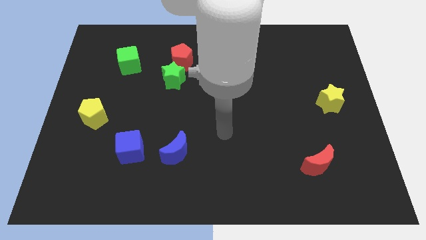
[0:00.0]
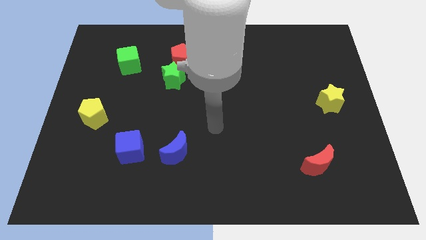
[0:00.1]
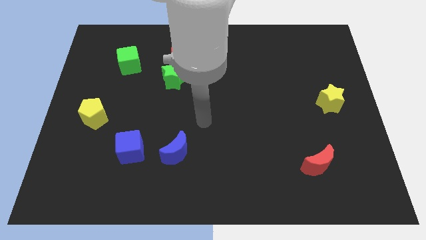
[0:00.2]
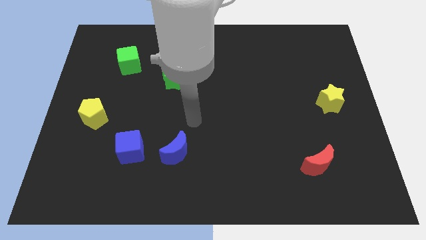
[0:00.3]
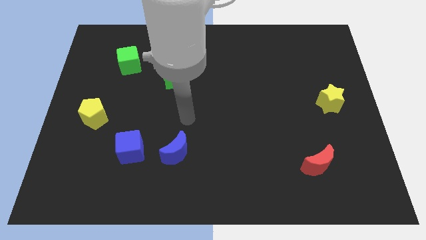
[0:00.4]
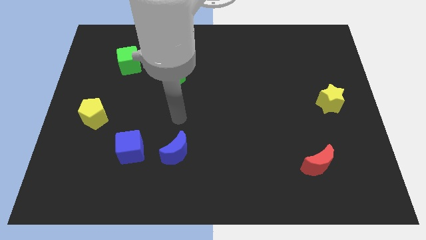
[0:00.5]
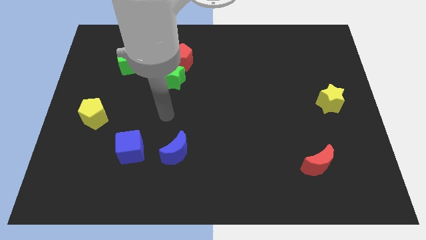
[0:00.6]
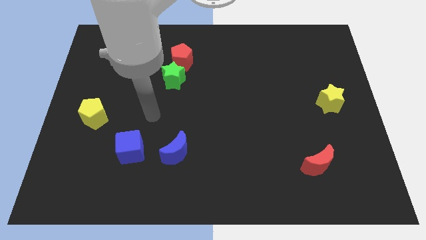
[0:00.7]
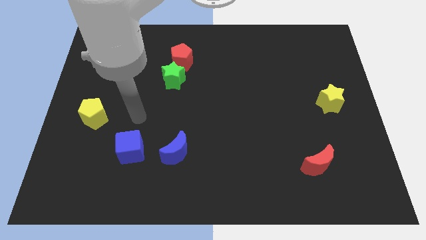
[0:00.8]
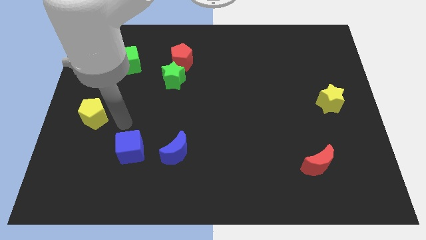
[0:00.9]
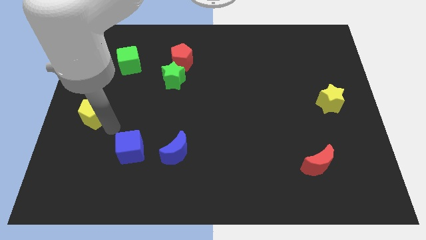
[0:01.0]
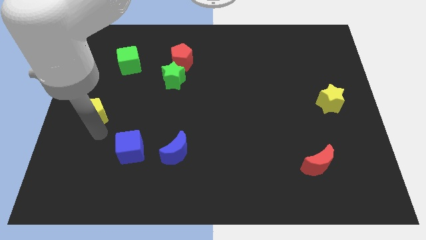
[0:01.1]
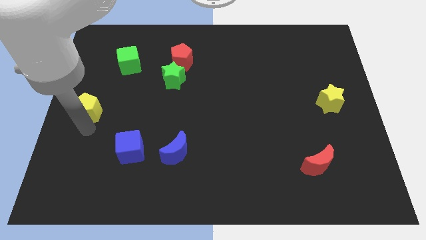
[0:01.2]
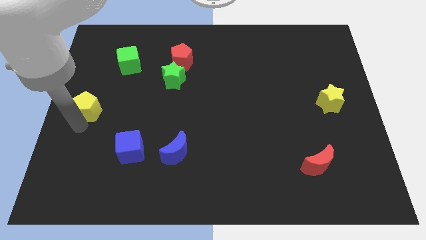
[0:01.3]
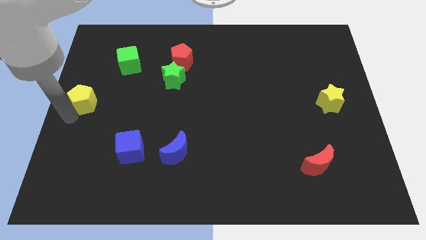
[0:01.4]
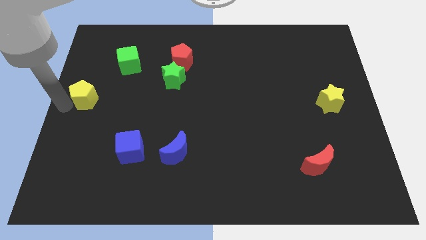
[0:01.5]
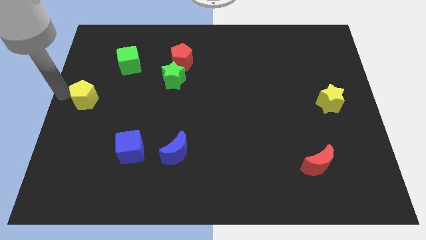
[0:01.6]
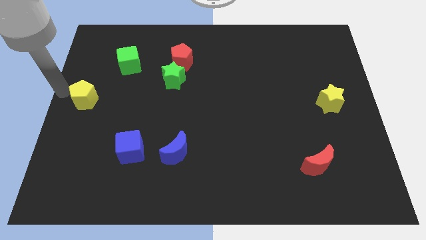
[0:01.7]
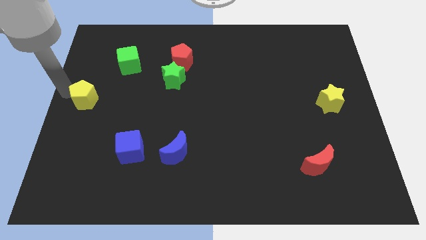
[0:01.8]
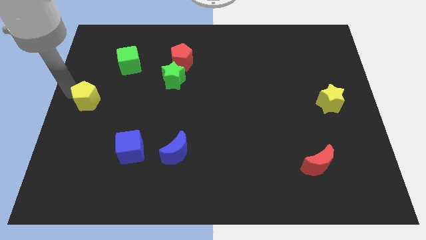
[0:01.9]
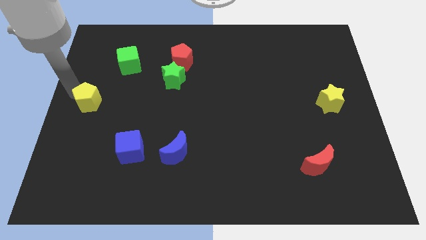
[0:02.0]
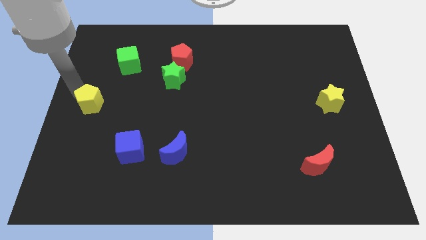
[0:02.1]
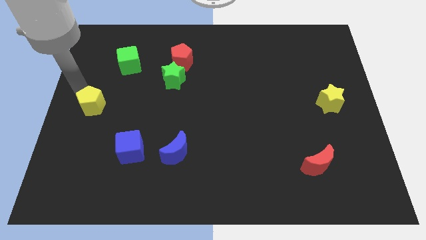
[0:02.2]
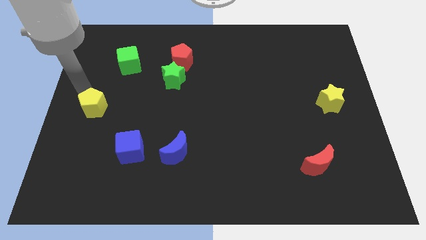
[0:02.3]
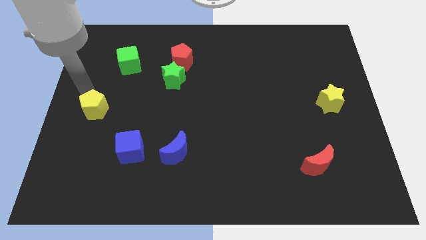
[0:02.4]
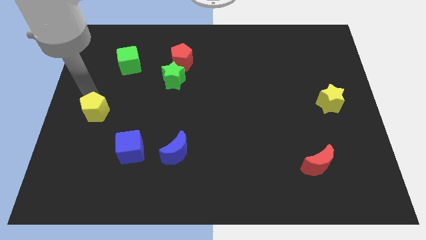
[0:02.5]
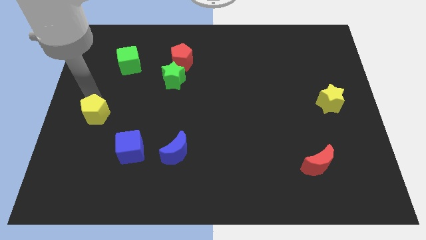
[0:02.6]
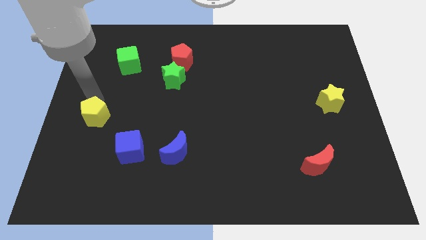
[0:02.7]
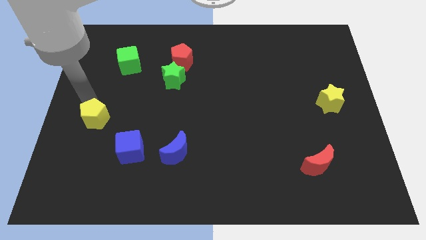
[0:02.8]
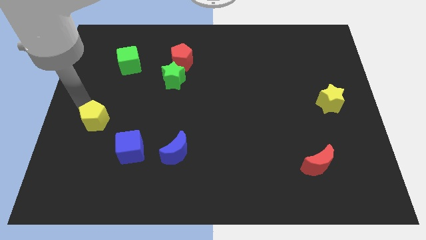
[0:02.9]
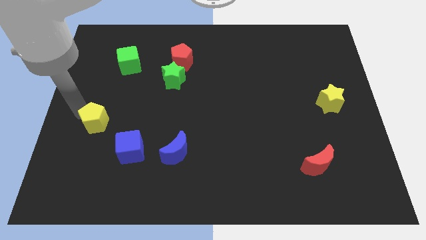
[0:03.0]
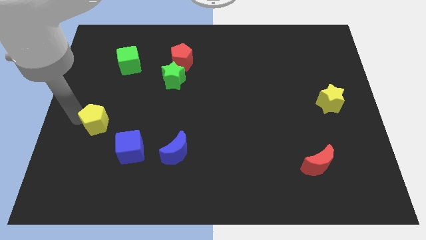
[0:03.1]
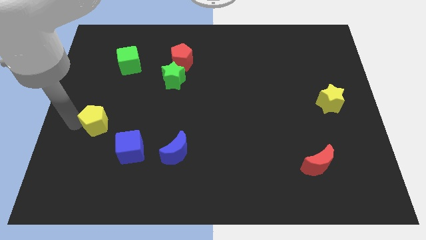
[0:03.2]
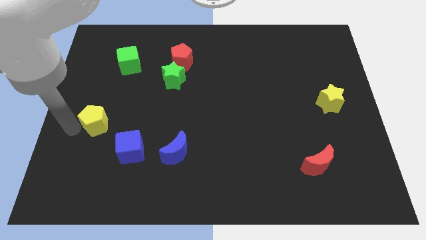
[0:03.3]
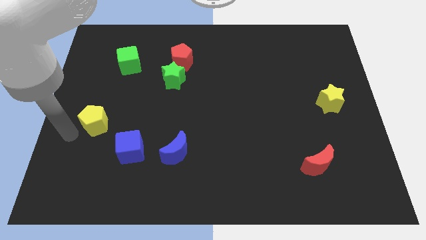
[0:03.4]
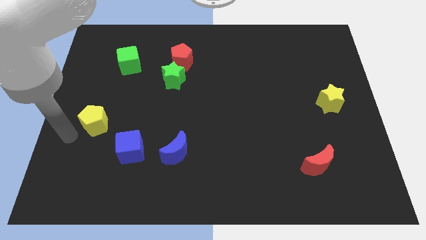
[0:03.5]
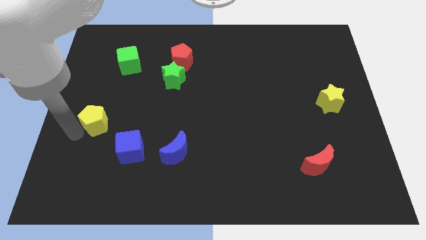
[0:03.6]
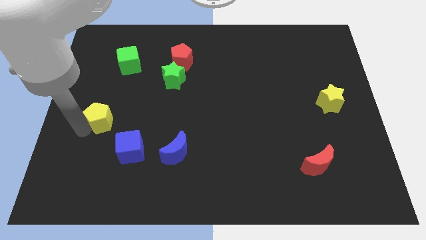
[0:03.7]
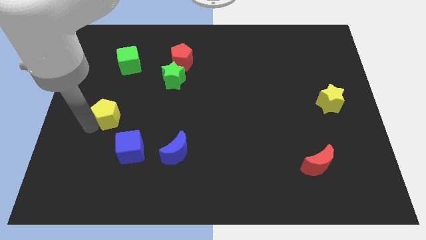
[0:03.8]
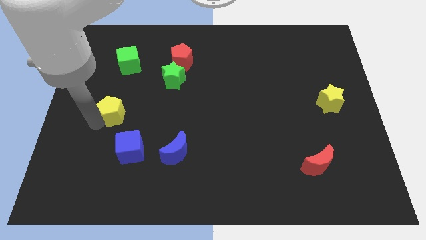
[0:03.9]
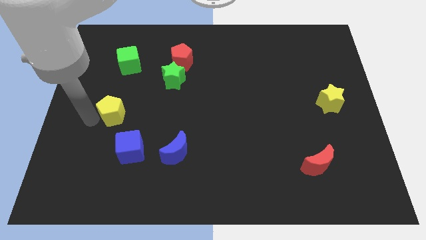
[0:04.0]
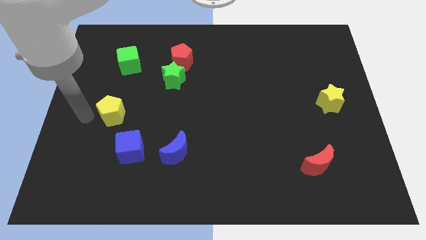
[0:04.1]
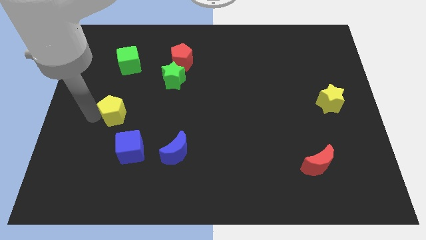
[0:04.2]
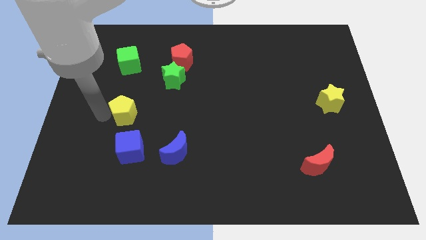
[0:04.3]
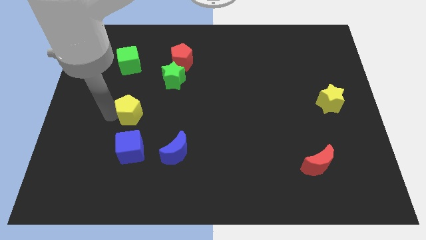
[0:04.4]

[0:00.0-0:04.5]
push the yellow pentagon a little to the right

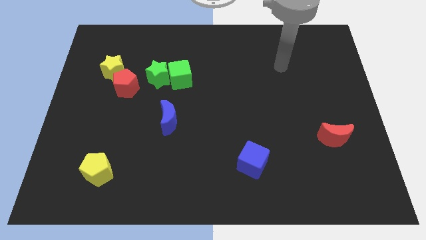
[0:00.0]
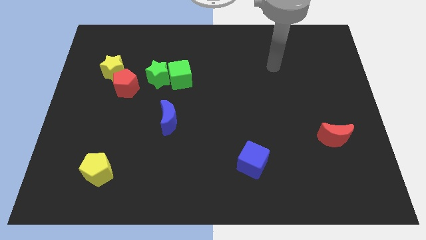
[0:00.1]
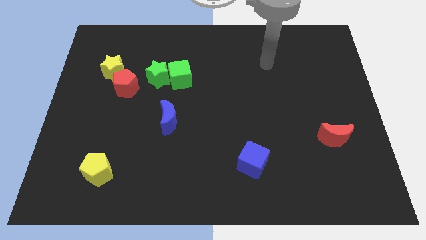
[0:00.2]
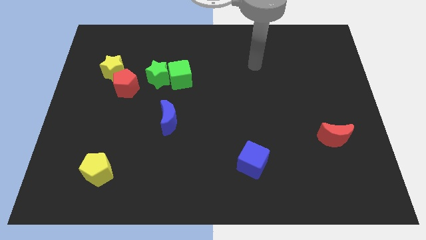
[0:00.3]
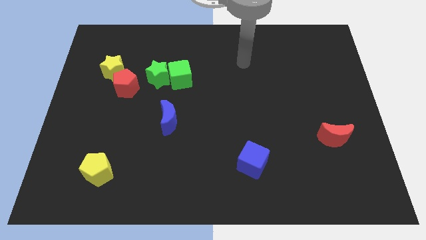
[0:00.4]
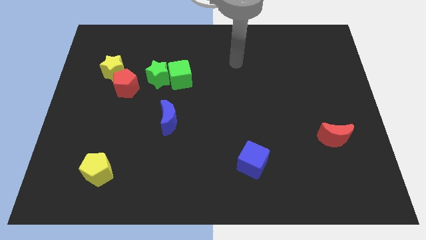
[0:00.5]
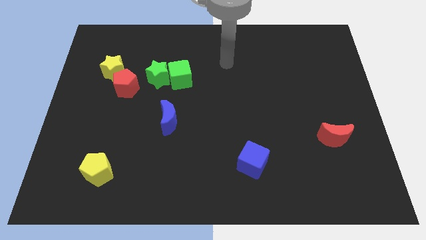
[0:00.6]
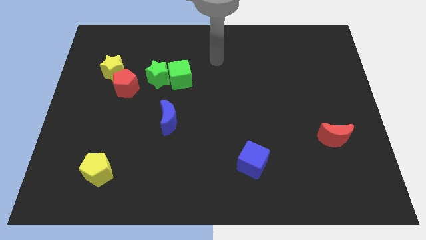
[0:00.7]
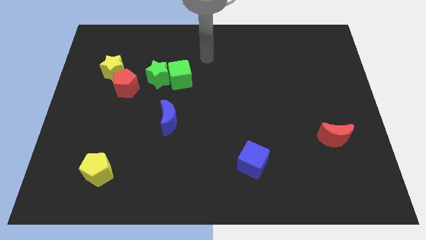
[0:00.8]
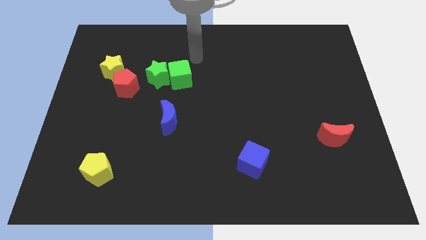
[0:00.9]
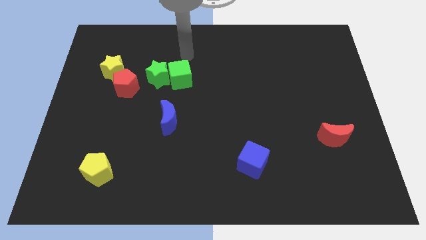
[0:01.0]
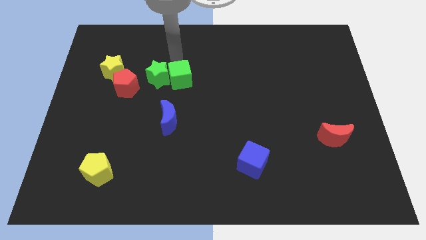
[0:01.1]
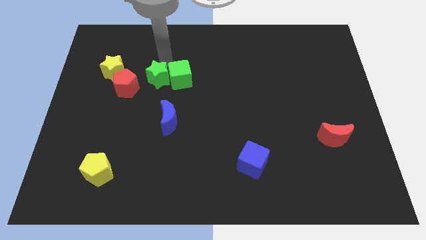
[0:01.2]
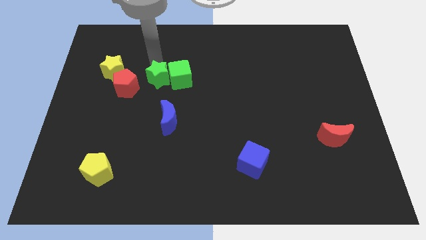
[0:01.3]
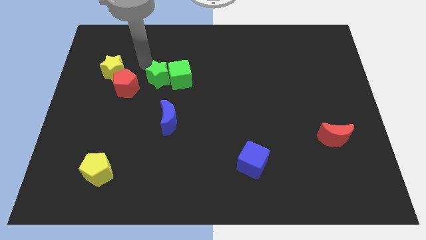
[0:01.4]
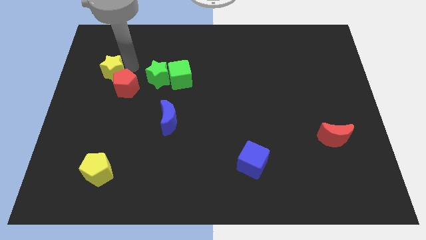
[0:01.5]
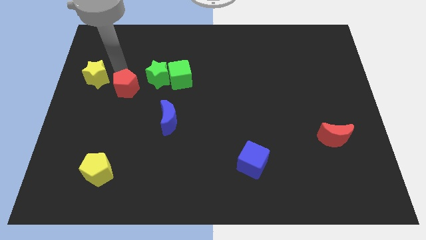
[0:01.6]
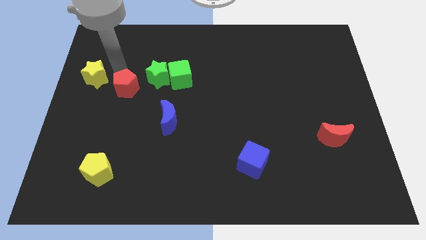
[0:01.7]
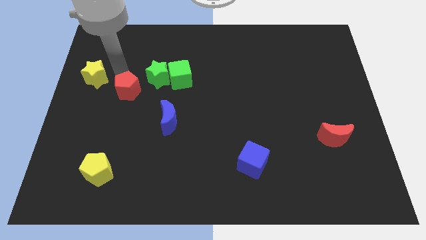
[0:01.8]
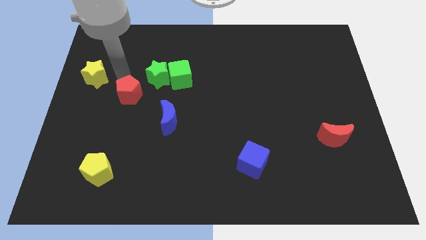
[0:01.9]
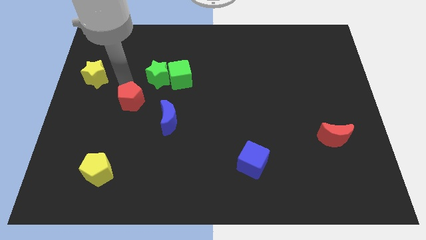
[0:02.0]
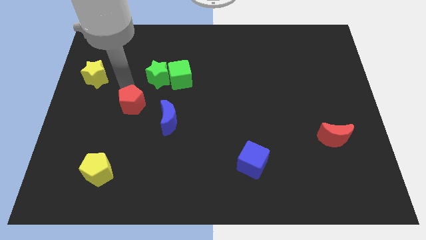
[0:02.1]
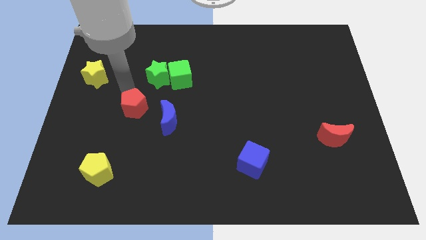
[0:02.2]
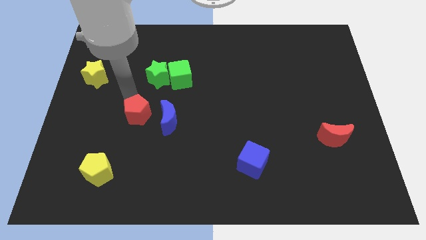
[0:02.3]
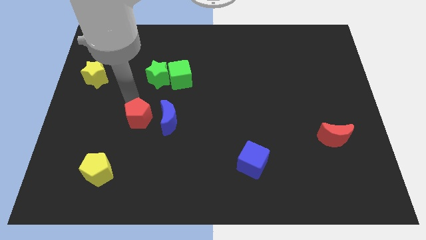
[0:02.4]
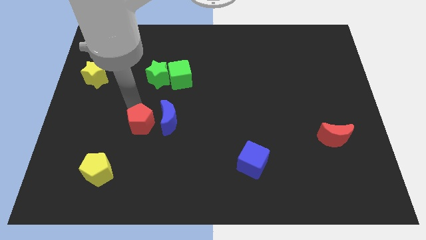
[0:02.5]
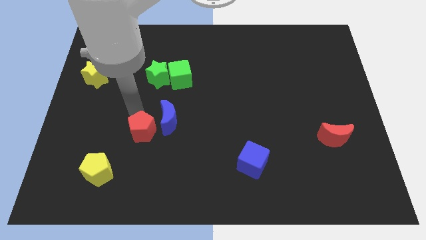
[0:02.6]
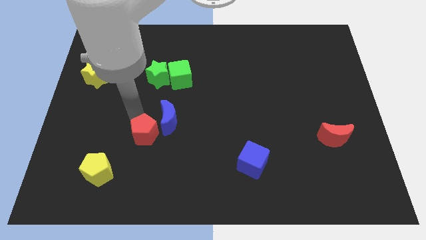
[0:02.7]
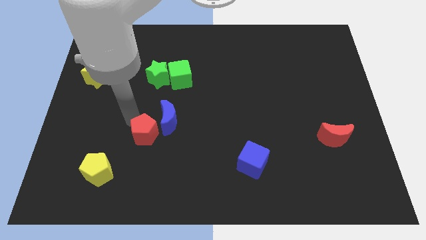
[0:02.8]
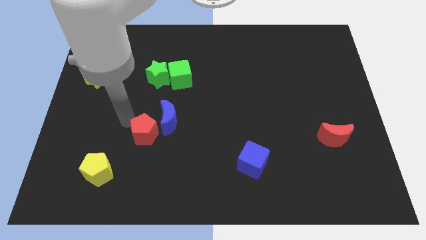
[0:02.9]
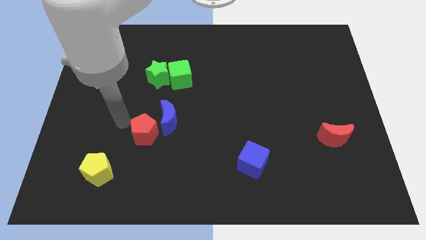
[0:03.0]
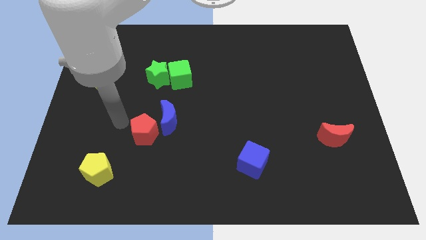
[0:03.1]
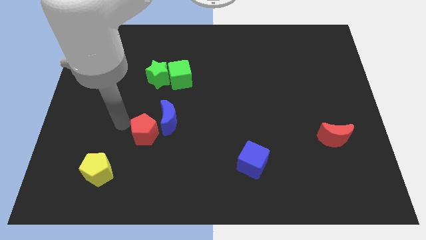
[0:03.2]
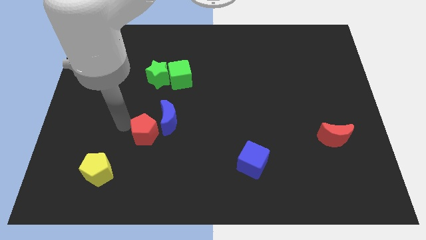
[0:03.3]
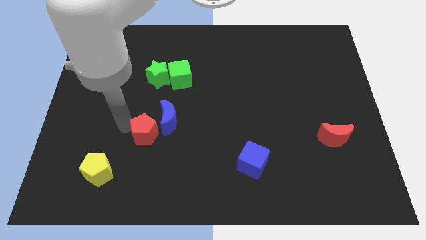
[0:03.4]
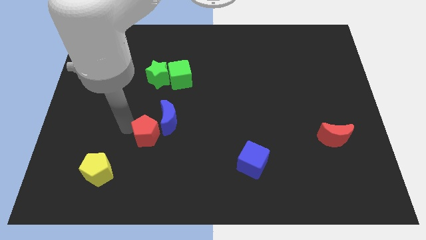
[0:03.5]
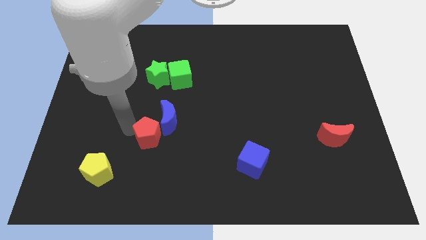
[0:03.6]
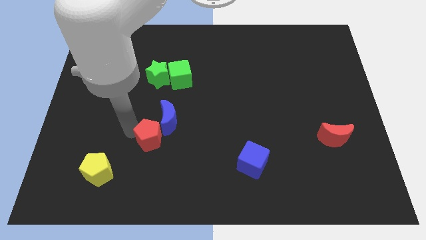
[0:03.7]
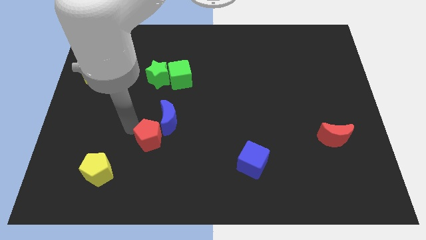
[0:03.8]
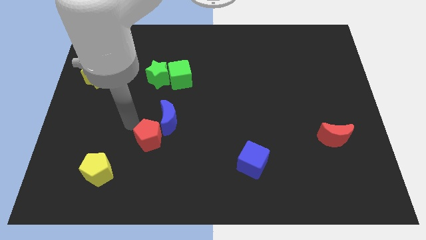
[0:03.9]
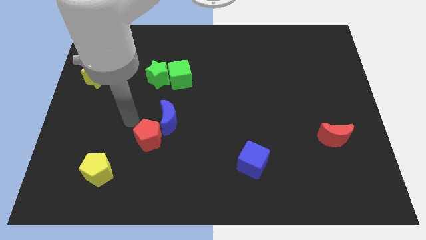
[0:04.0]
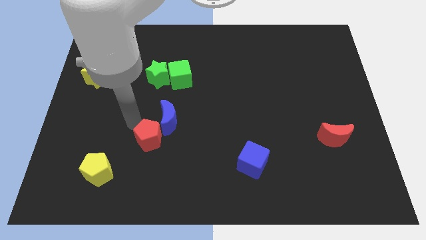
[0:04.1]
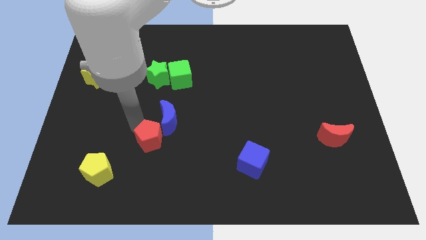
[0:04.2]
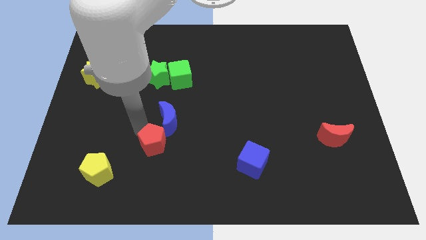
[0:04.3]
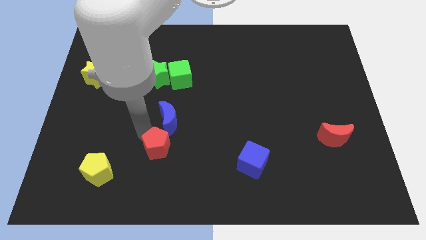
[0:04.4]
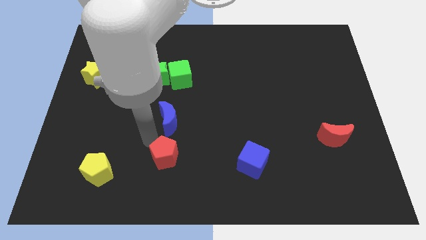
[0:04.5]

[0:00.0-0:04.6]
slide the red pentagon down and right
